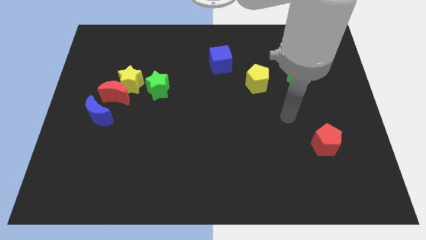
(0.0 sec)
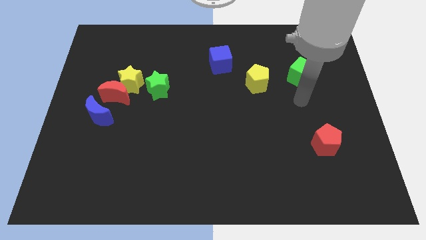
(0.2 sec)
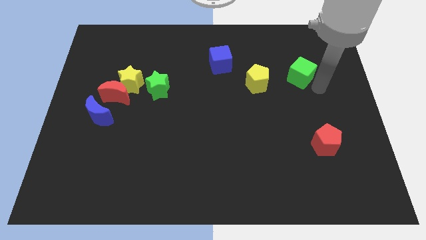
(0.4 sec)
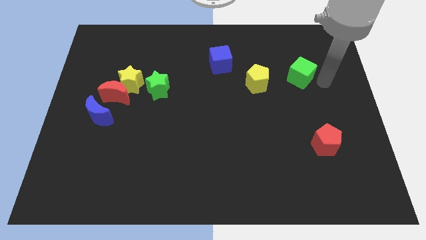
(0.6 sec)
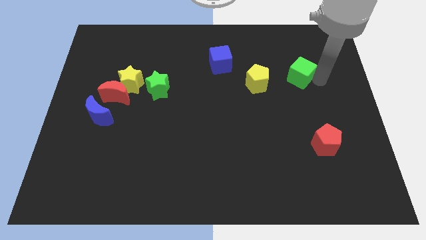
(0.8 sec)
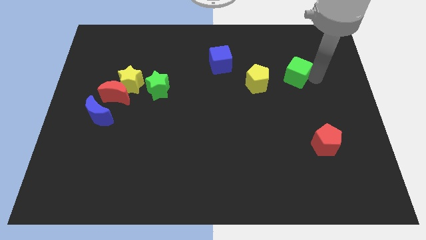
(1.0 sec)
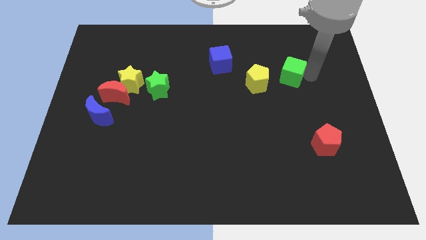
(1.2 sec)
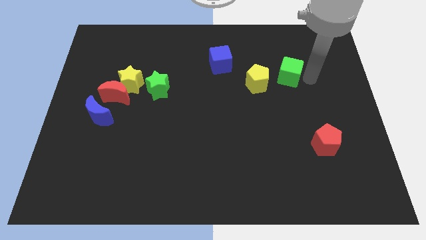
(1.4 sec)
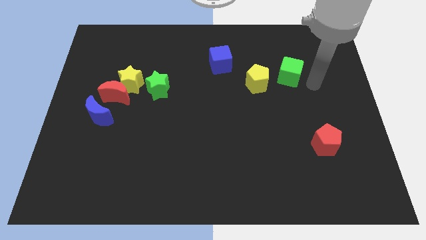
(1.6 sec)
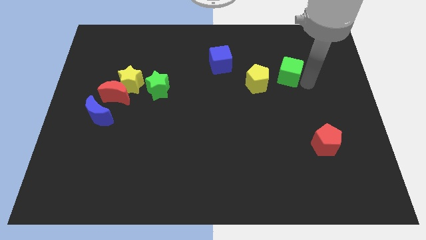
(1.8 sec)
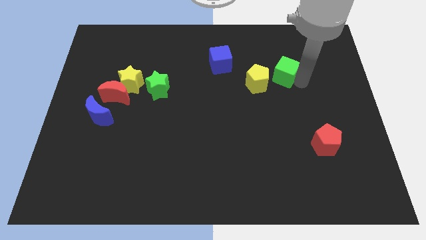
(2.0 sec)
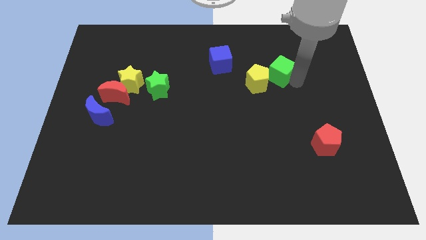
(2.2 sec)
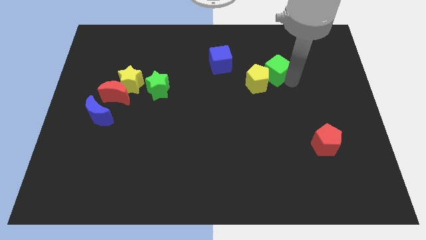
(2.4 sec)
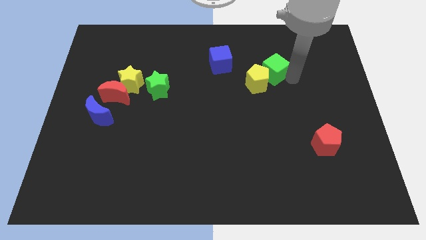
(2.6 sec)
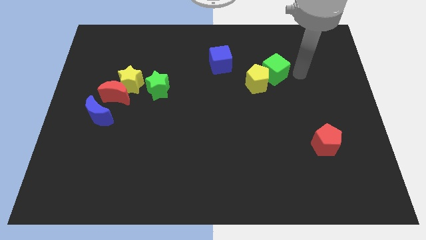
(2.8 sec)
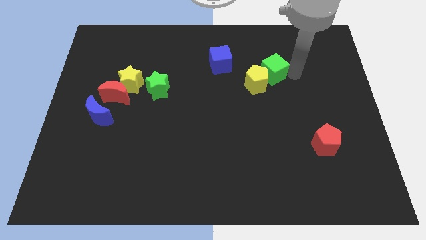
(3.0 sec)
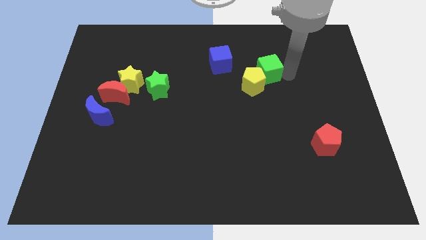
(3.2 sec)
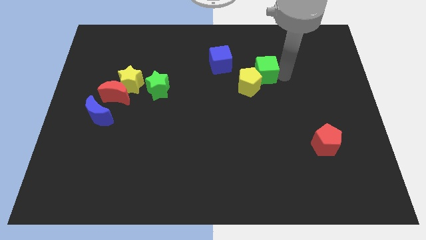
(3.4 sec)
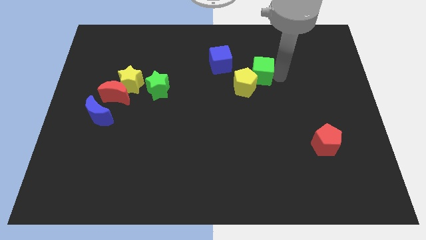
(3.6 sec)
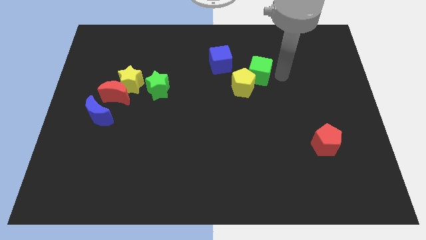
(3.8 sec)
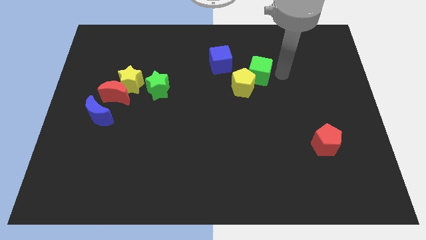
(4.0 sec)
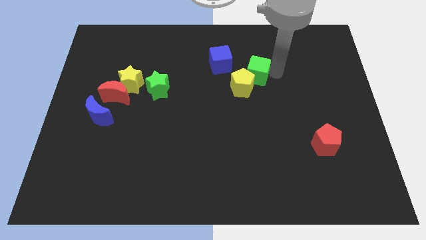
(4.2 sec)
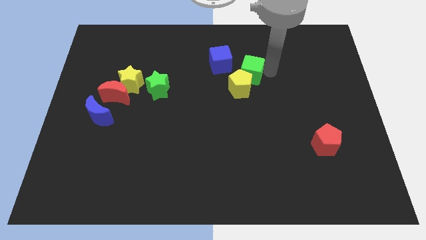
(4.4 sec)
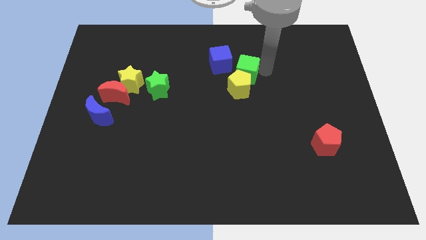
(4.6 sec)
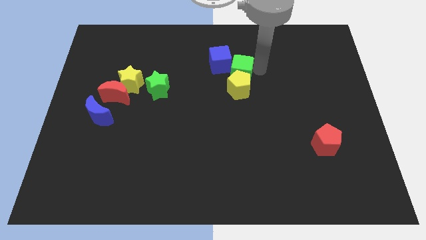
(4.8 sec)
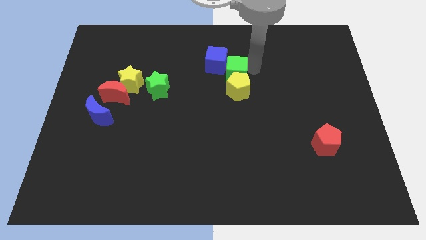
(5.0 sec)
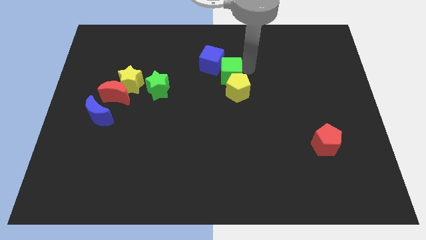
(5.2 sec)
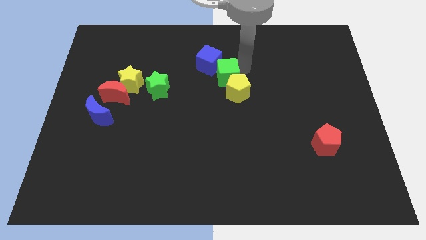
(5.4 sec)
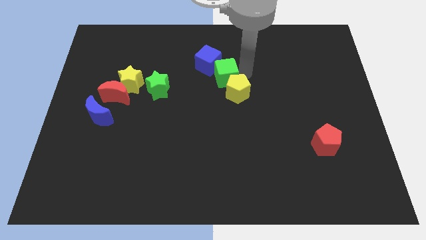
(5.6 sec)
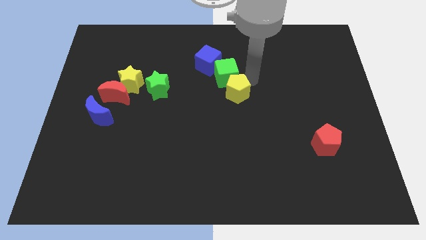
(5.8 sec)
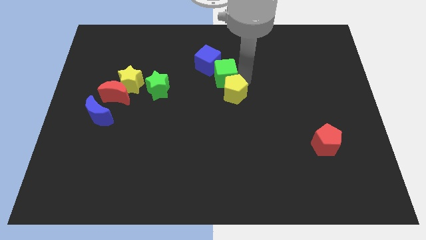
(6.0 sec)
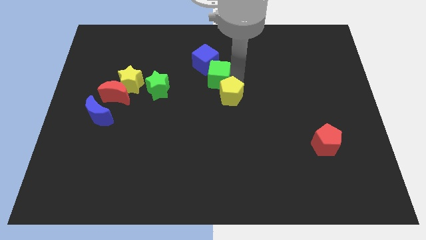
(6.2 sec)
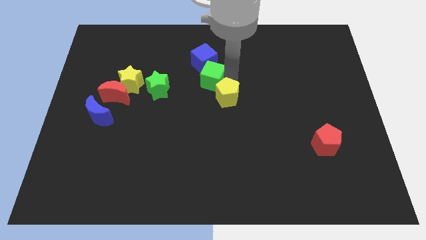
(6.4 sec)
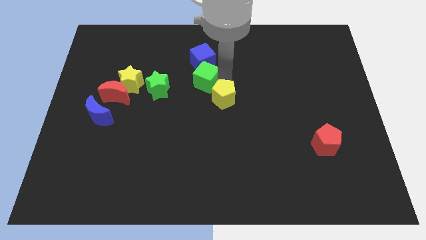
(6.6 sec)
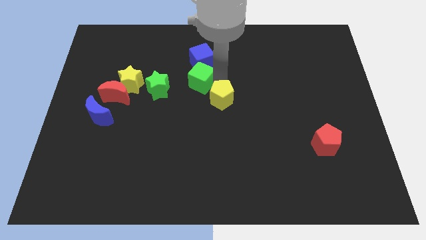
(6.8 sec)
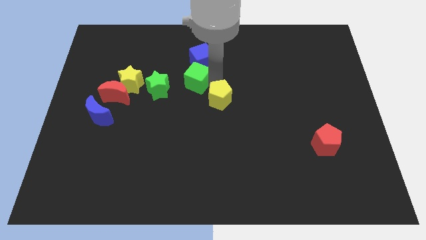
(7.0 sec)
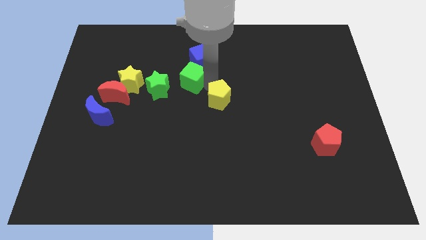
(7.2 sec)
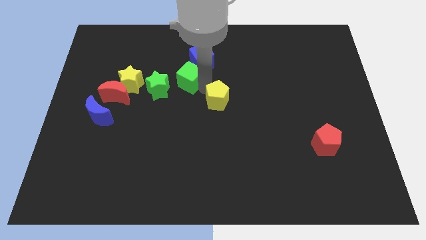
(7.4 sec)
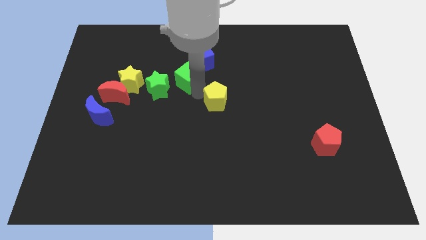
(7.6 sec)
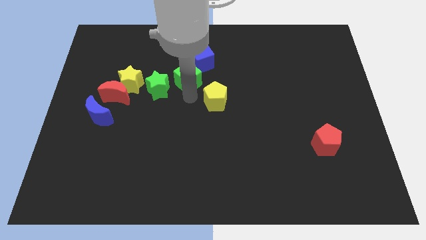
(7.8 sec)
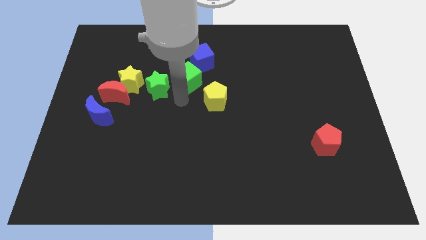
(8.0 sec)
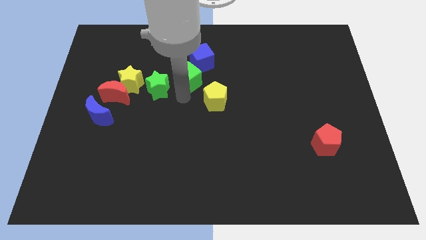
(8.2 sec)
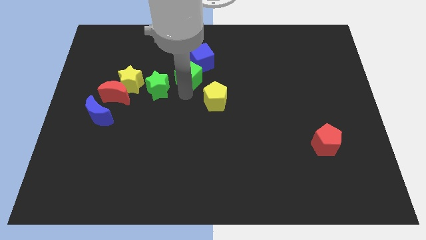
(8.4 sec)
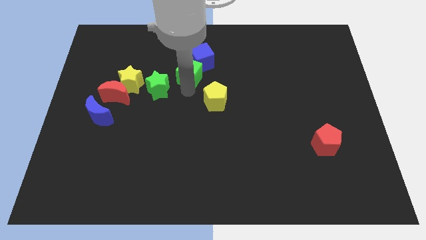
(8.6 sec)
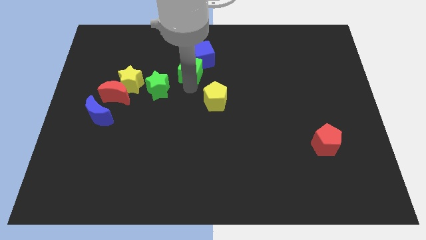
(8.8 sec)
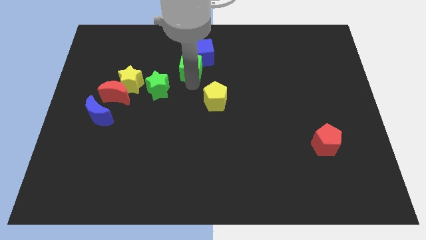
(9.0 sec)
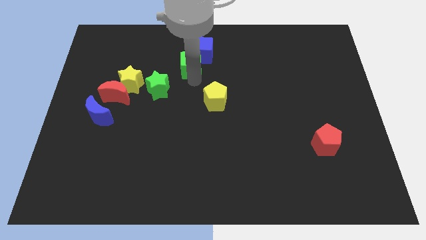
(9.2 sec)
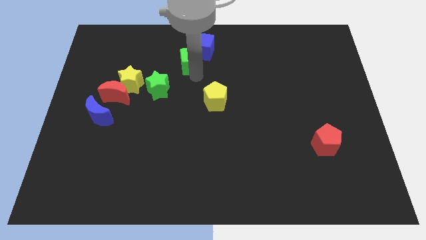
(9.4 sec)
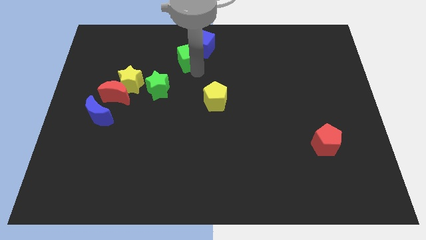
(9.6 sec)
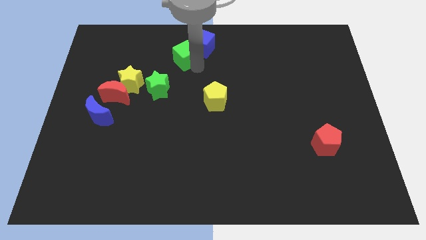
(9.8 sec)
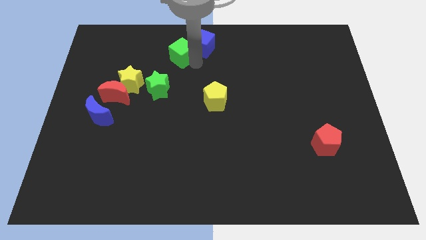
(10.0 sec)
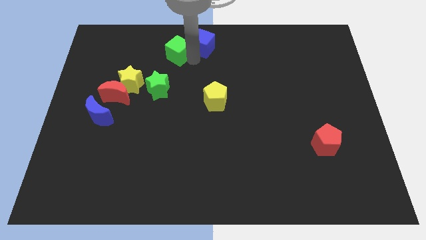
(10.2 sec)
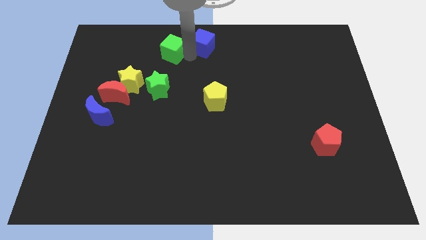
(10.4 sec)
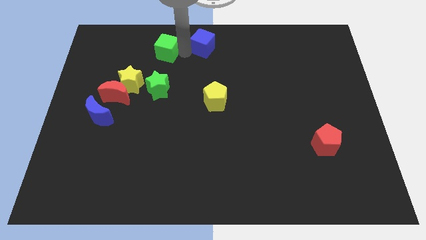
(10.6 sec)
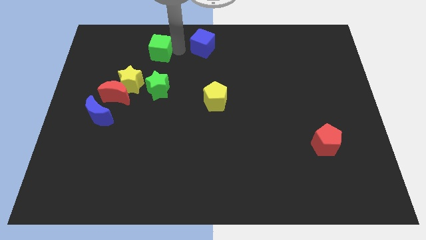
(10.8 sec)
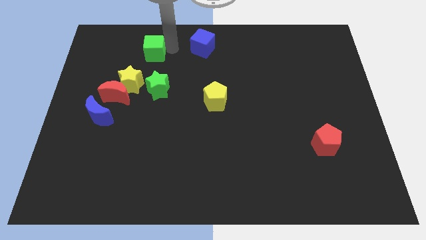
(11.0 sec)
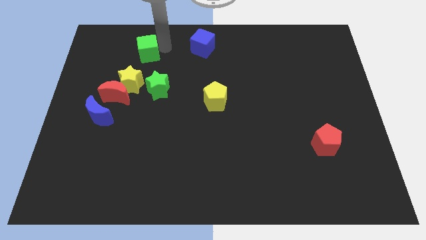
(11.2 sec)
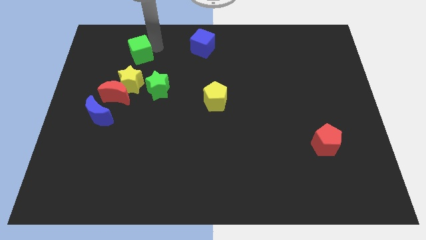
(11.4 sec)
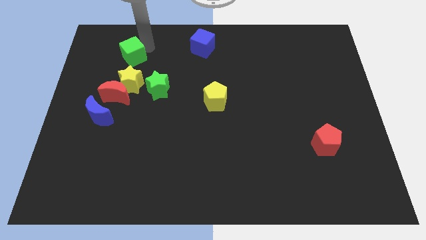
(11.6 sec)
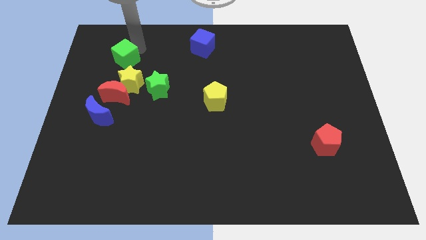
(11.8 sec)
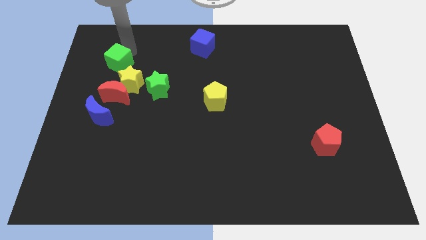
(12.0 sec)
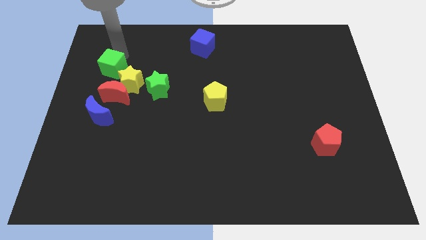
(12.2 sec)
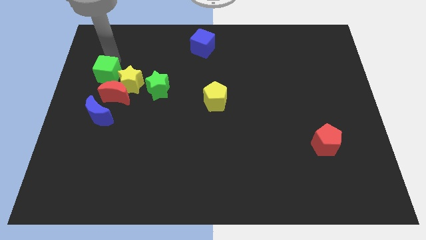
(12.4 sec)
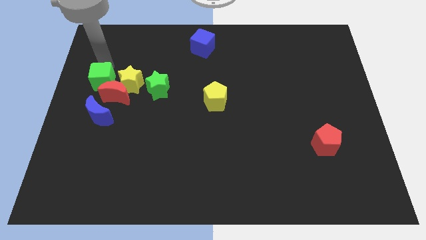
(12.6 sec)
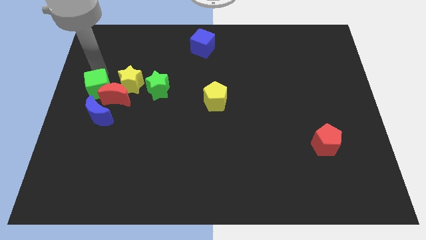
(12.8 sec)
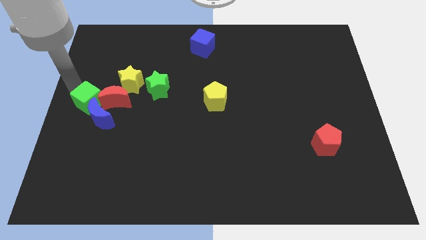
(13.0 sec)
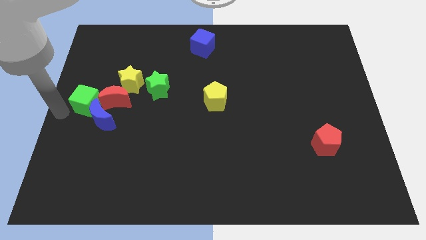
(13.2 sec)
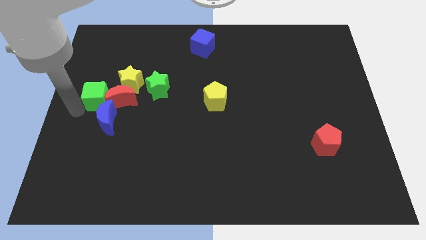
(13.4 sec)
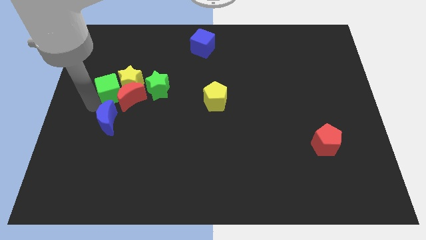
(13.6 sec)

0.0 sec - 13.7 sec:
move the green cube towards the yellow star

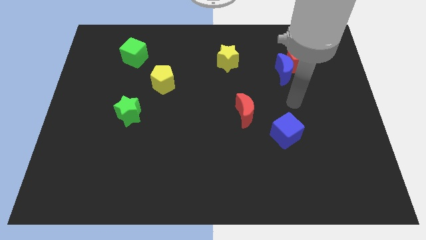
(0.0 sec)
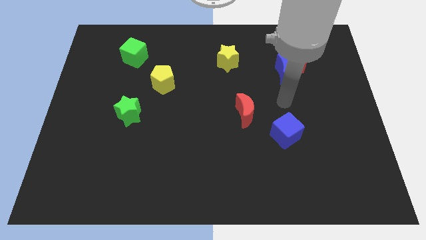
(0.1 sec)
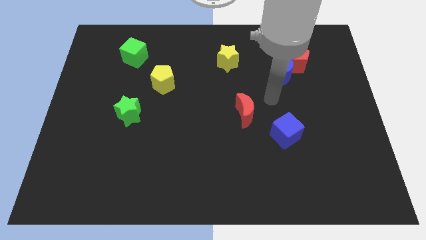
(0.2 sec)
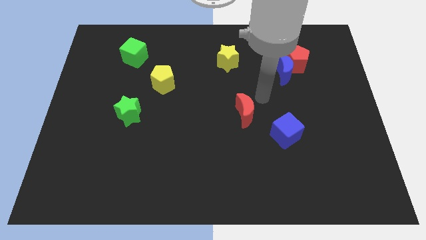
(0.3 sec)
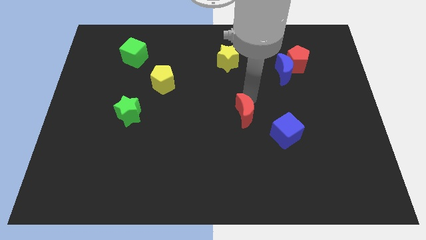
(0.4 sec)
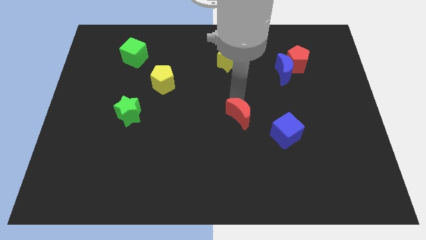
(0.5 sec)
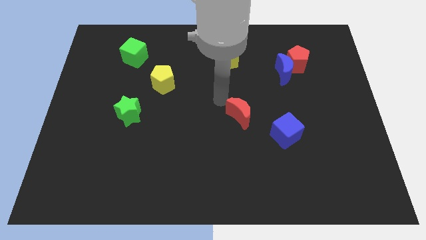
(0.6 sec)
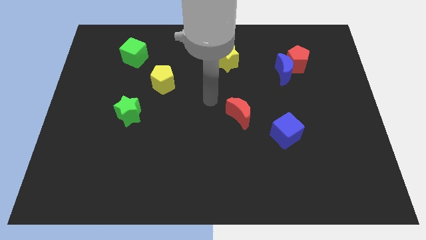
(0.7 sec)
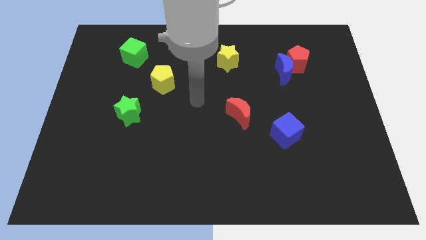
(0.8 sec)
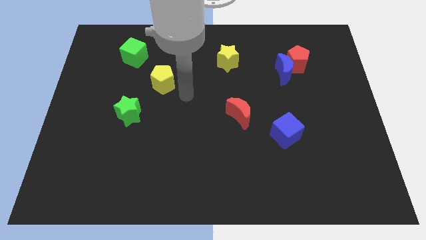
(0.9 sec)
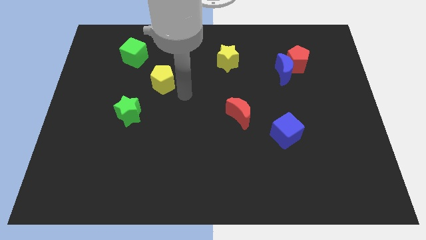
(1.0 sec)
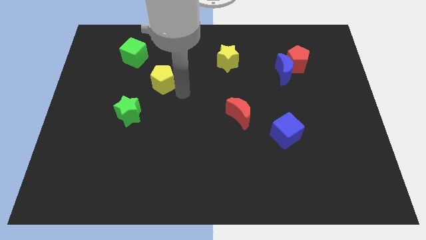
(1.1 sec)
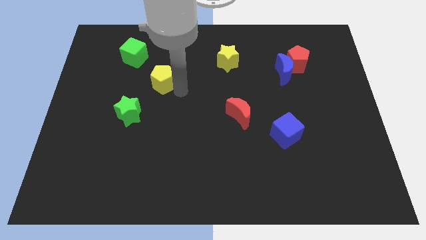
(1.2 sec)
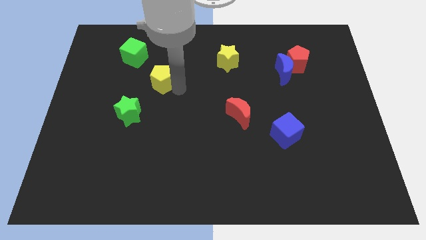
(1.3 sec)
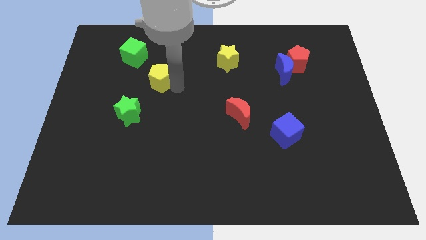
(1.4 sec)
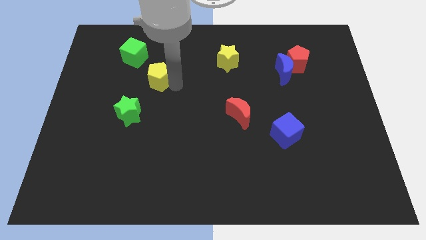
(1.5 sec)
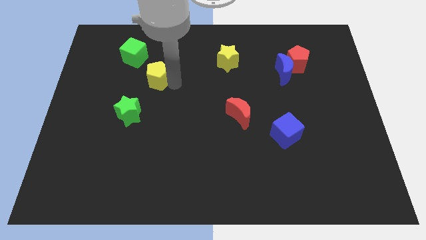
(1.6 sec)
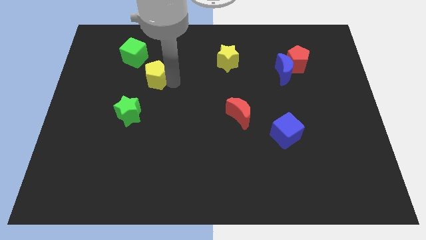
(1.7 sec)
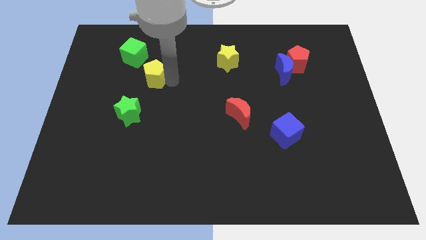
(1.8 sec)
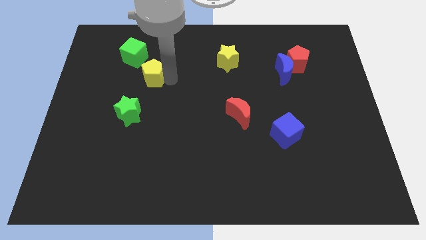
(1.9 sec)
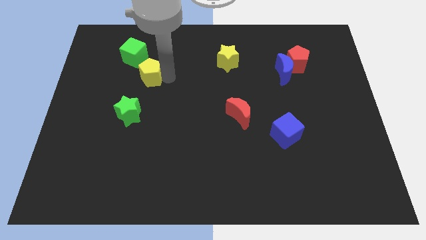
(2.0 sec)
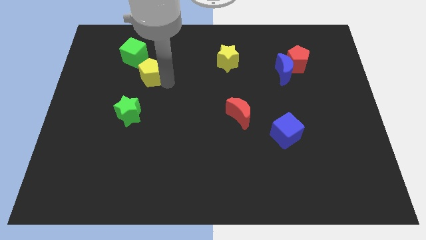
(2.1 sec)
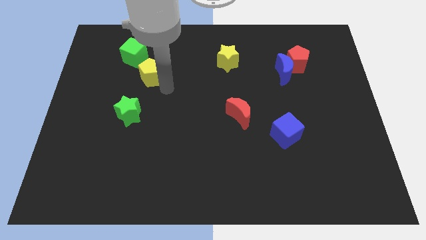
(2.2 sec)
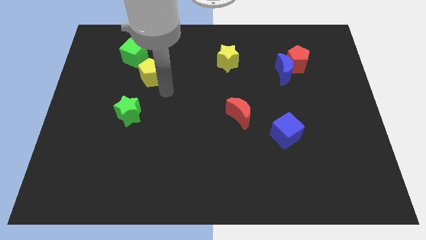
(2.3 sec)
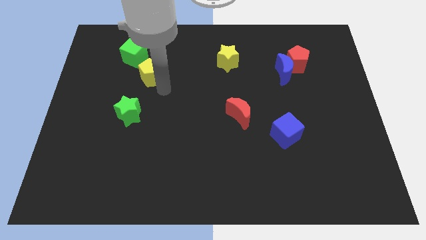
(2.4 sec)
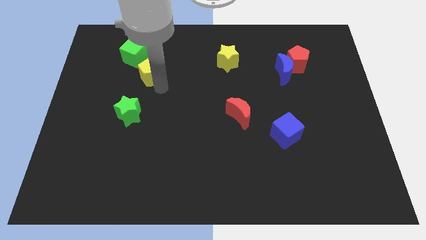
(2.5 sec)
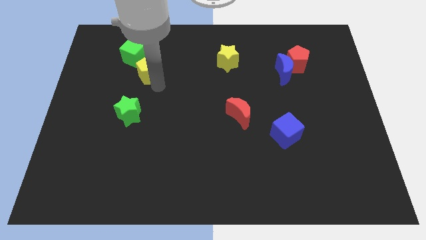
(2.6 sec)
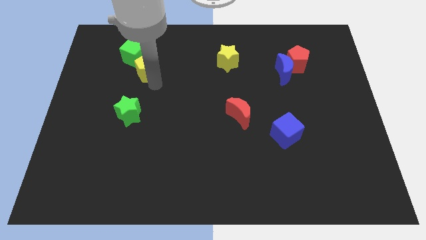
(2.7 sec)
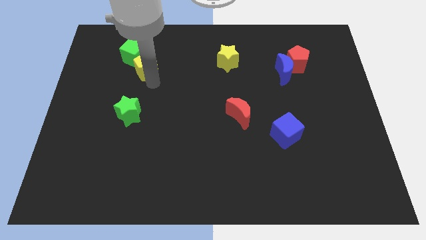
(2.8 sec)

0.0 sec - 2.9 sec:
move the yellow pentagon to the green cube
